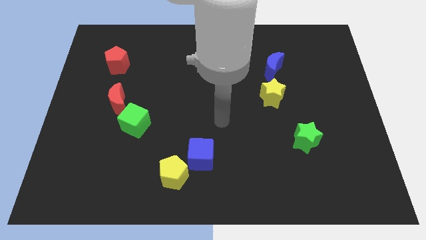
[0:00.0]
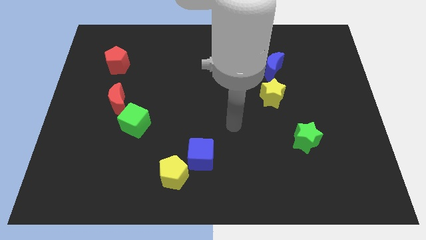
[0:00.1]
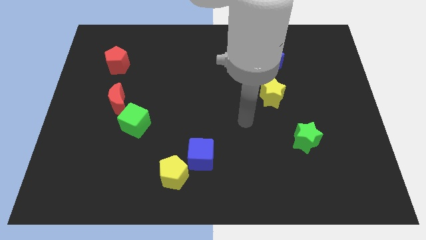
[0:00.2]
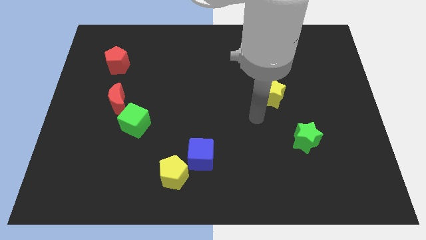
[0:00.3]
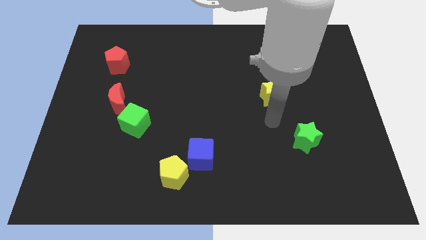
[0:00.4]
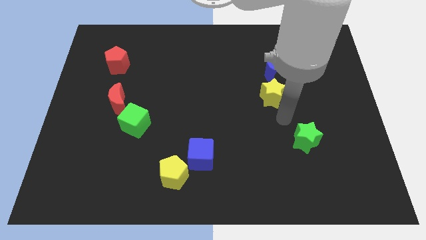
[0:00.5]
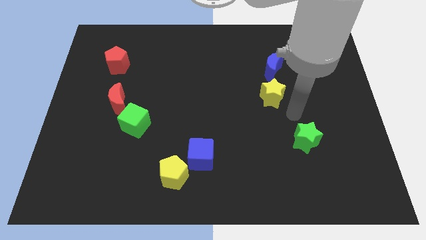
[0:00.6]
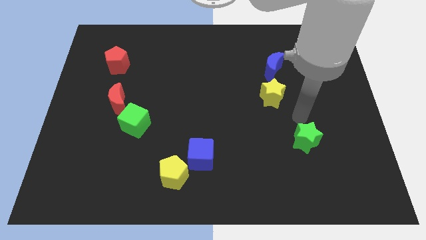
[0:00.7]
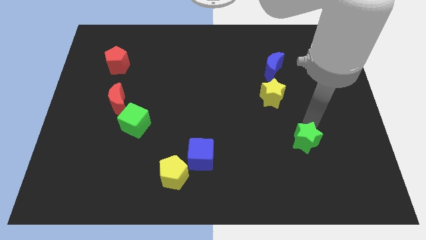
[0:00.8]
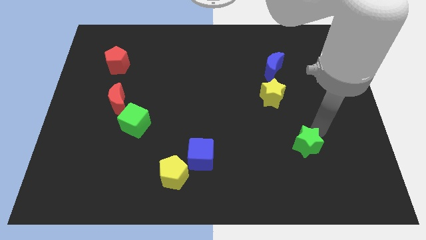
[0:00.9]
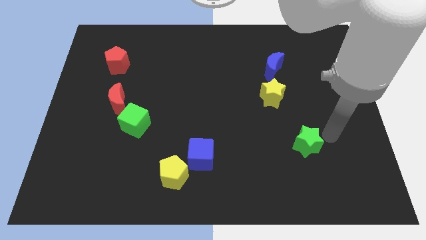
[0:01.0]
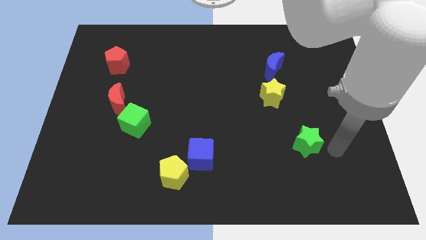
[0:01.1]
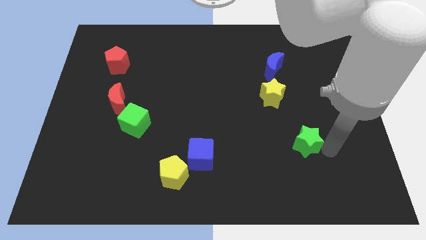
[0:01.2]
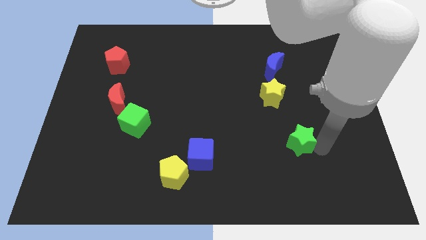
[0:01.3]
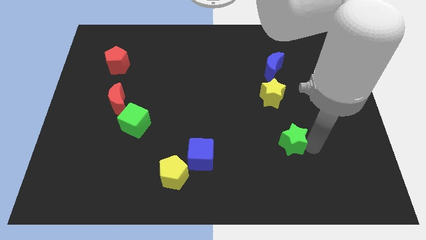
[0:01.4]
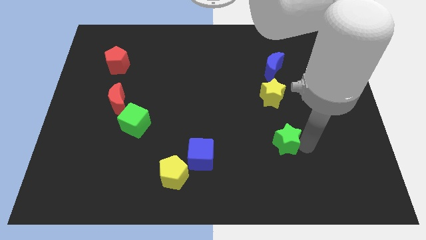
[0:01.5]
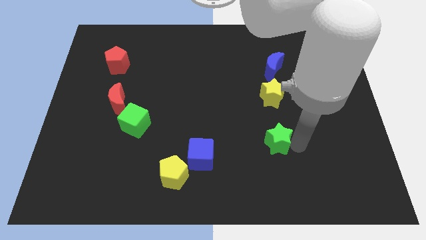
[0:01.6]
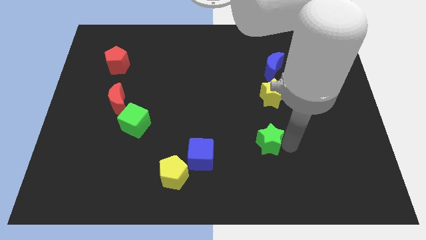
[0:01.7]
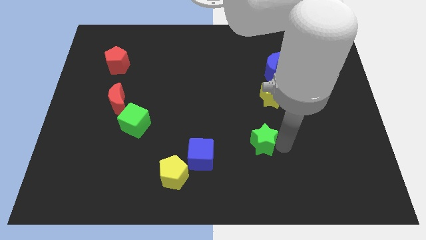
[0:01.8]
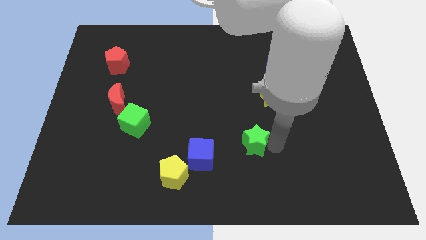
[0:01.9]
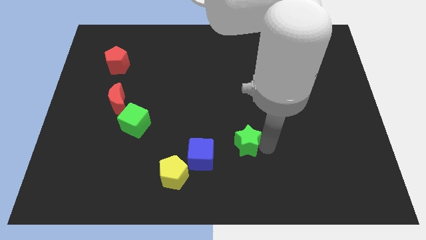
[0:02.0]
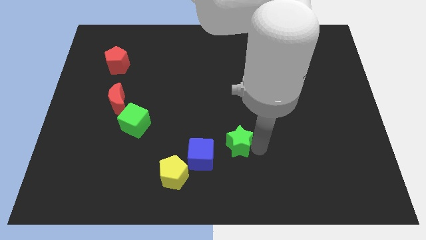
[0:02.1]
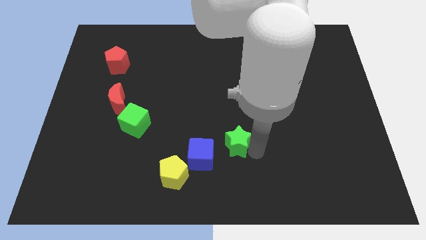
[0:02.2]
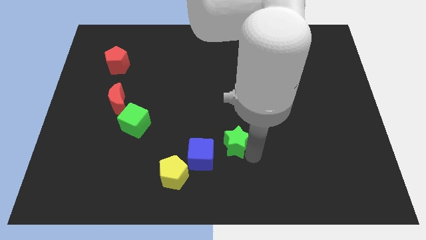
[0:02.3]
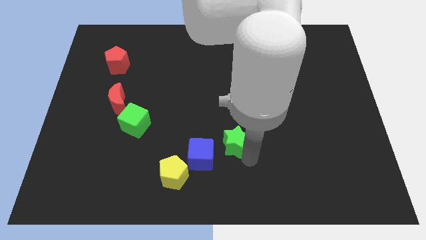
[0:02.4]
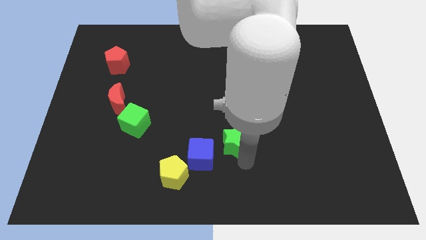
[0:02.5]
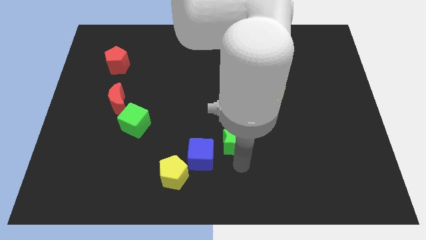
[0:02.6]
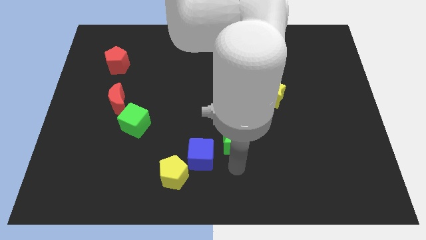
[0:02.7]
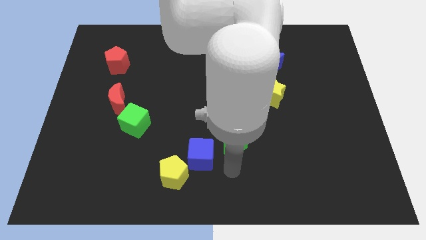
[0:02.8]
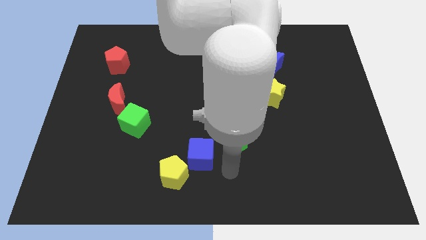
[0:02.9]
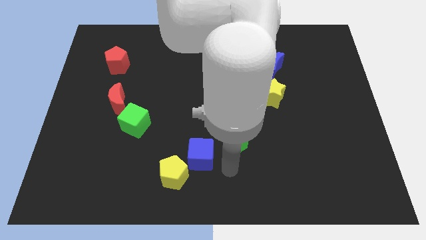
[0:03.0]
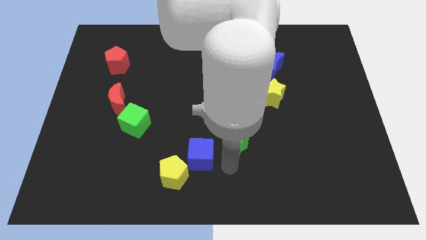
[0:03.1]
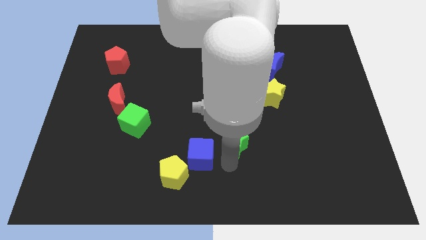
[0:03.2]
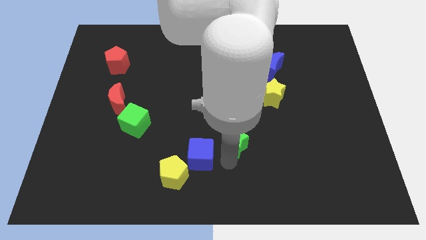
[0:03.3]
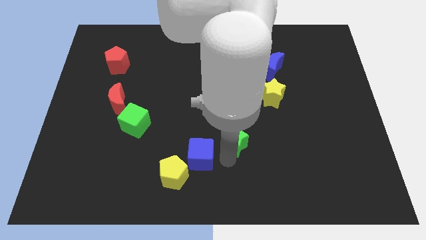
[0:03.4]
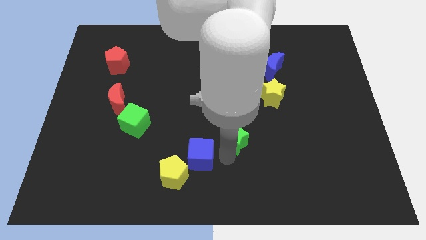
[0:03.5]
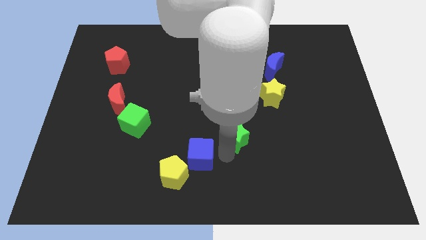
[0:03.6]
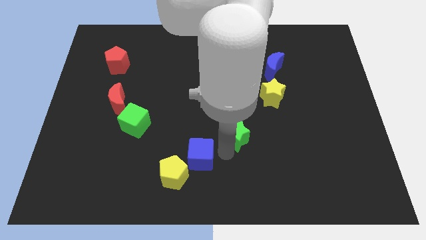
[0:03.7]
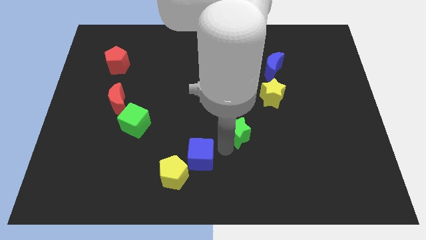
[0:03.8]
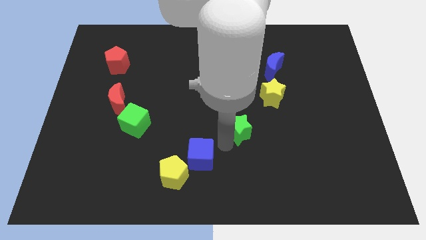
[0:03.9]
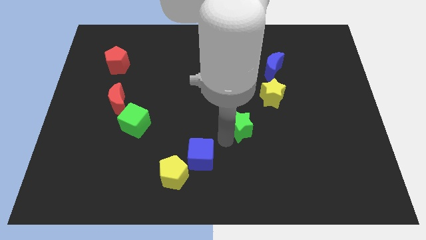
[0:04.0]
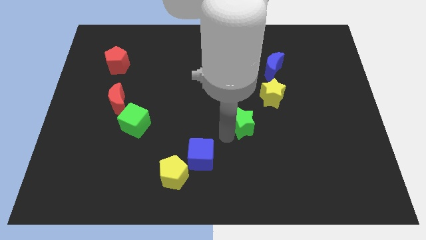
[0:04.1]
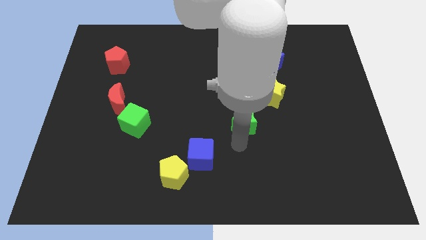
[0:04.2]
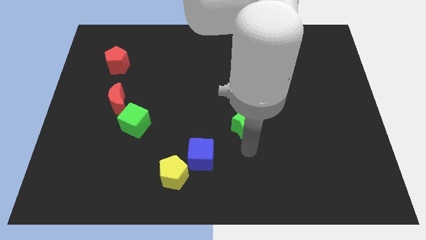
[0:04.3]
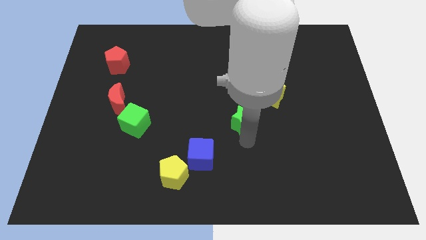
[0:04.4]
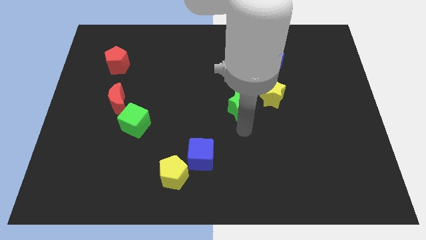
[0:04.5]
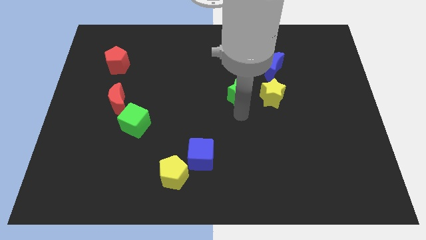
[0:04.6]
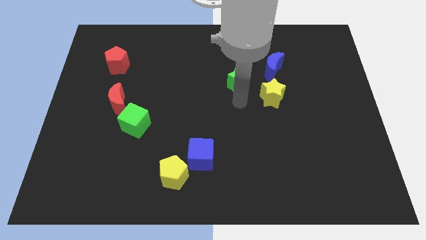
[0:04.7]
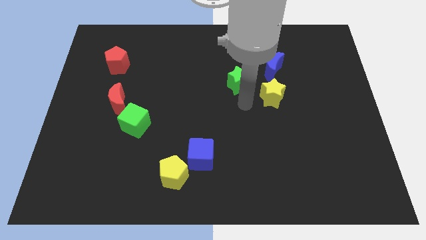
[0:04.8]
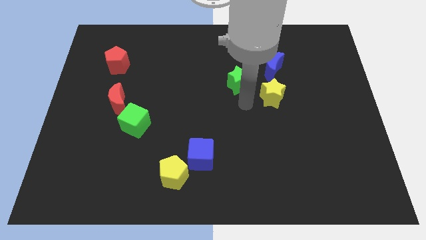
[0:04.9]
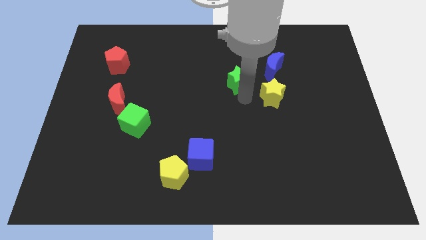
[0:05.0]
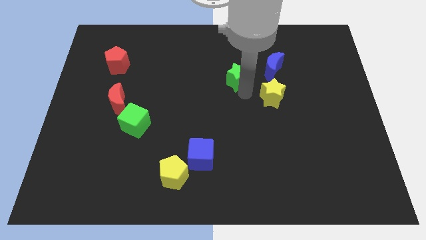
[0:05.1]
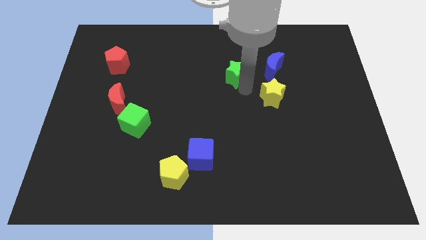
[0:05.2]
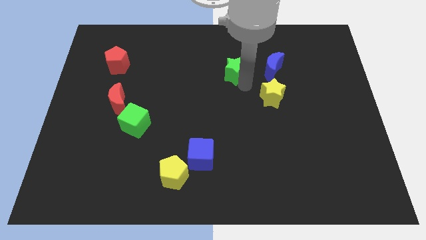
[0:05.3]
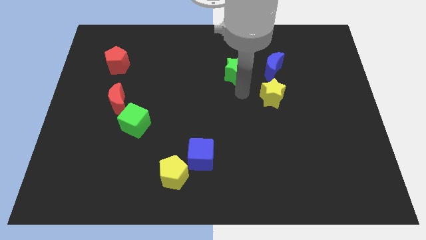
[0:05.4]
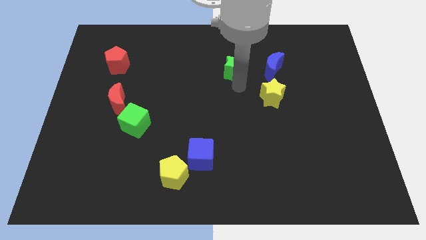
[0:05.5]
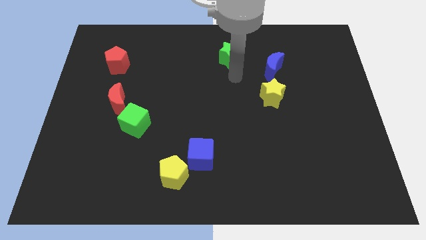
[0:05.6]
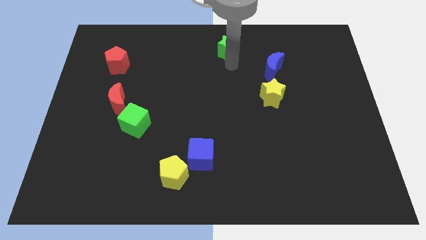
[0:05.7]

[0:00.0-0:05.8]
slide the green star to the towards your base

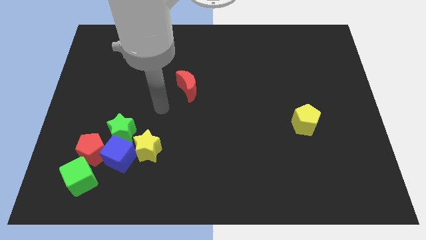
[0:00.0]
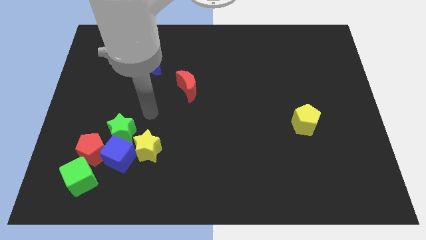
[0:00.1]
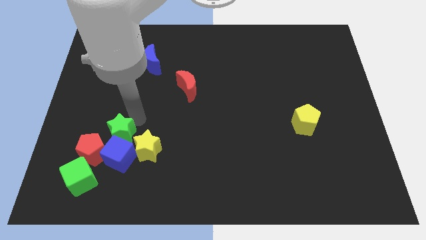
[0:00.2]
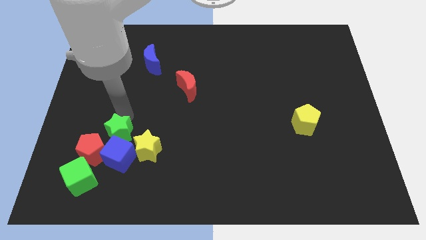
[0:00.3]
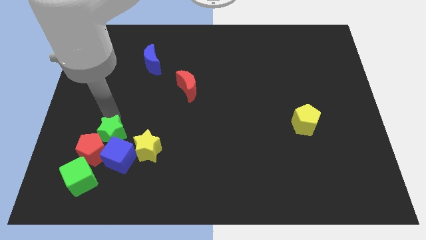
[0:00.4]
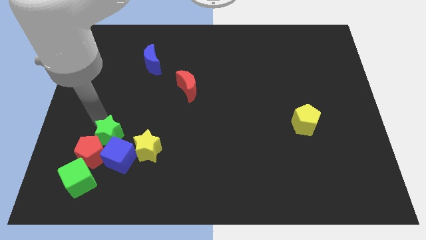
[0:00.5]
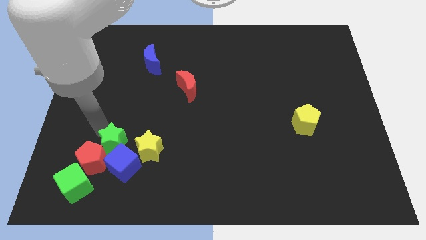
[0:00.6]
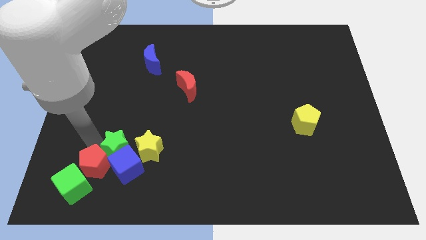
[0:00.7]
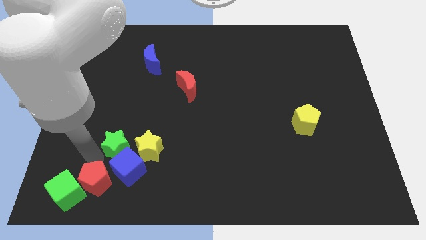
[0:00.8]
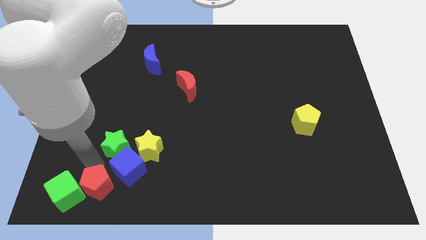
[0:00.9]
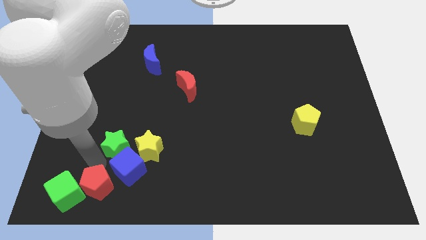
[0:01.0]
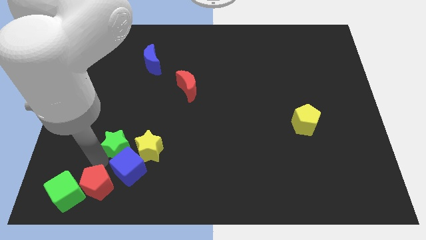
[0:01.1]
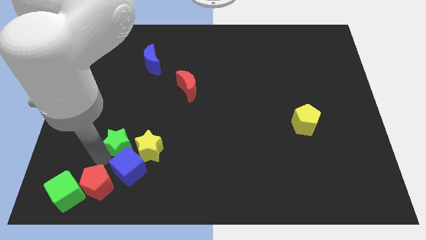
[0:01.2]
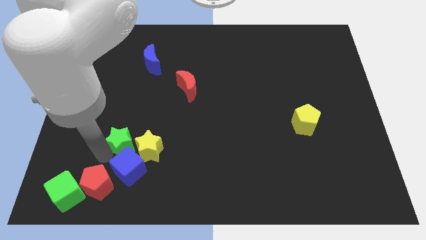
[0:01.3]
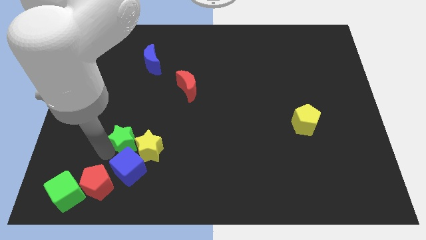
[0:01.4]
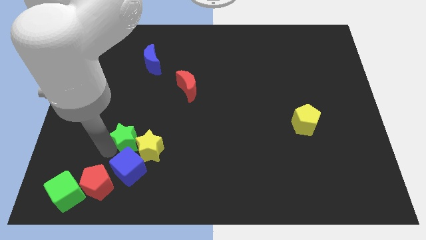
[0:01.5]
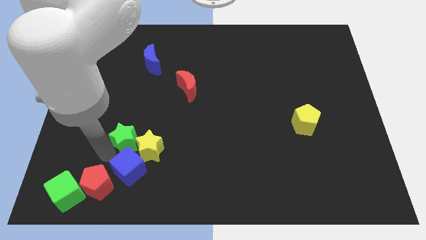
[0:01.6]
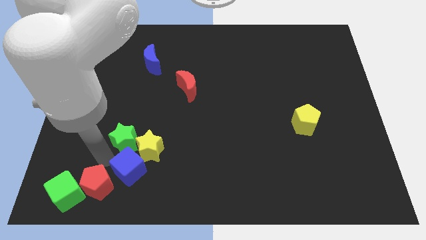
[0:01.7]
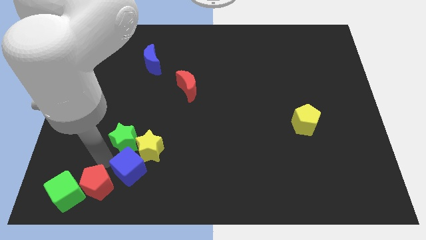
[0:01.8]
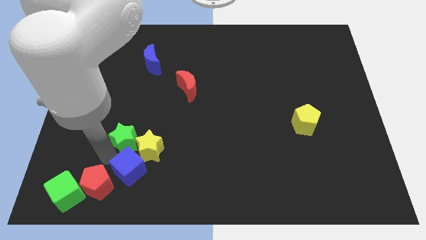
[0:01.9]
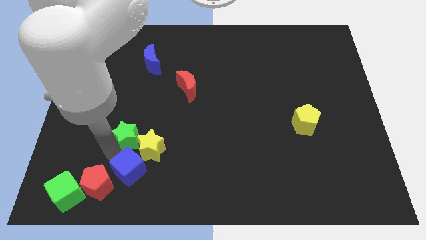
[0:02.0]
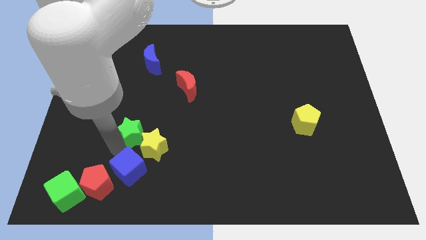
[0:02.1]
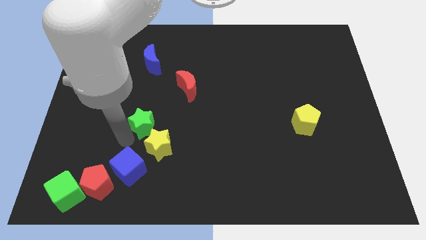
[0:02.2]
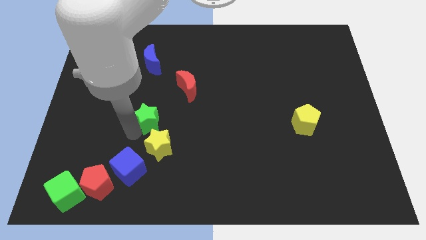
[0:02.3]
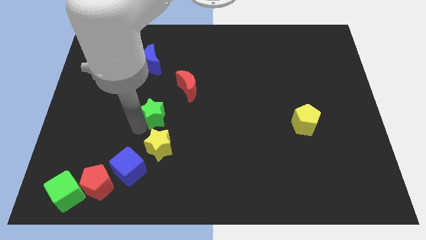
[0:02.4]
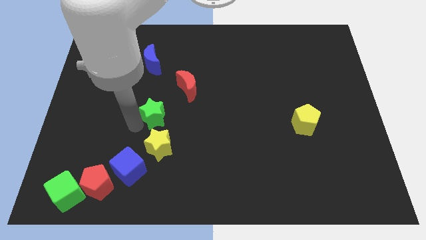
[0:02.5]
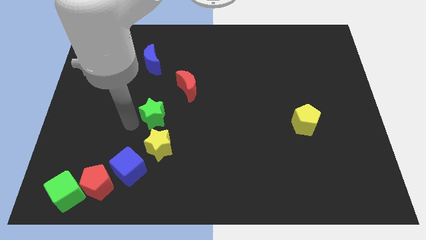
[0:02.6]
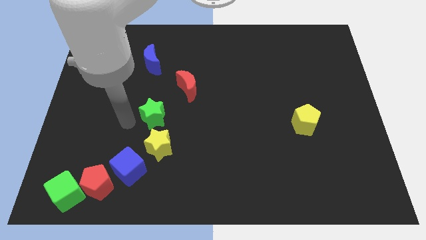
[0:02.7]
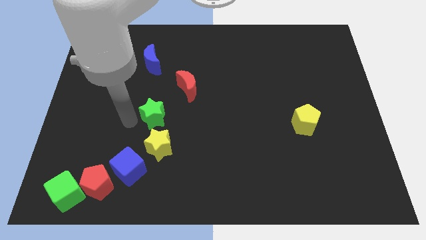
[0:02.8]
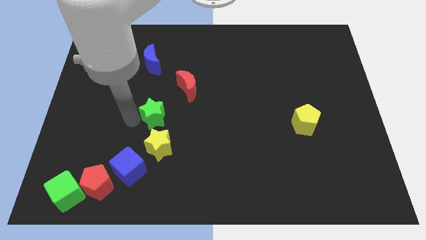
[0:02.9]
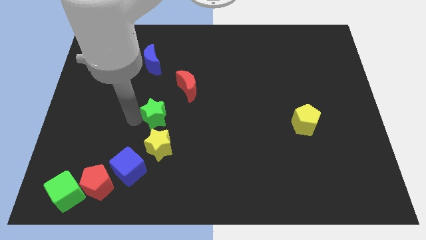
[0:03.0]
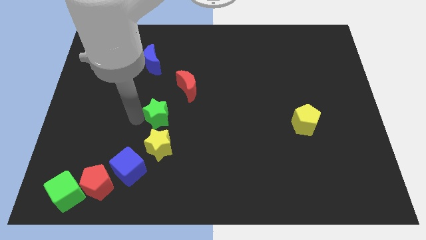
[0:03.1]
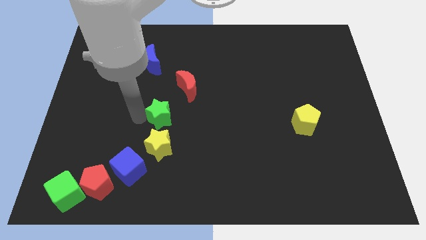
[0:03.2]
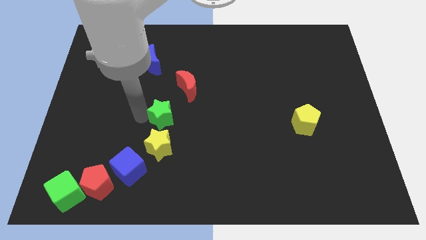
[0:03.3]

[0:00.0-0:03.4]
slide the green star to the center
